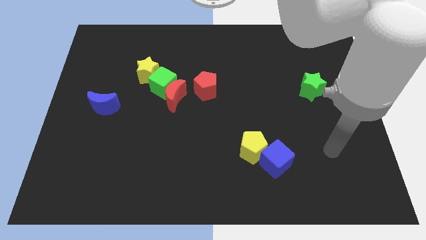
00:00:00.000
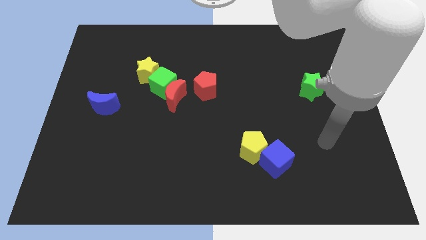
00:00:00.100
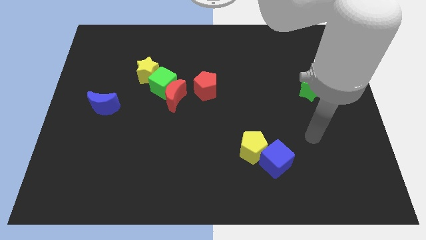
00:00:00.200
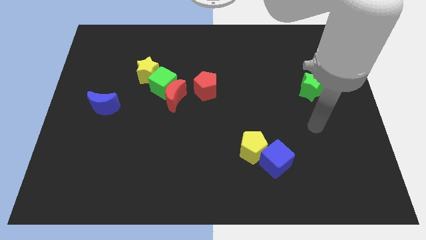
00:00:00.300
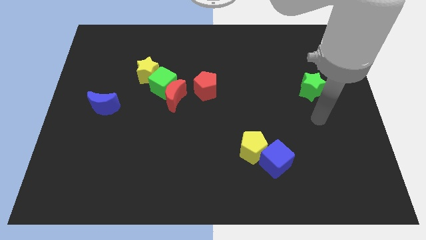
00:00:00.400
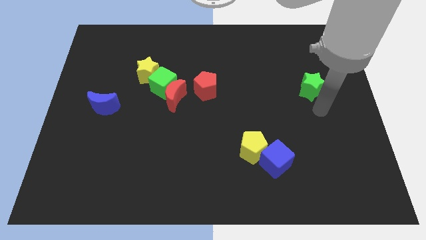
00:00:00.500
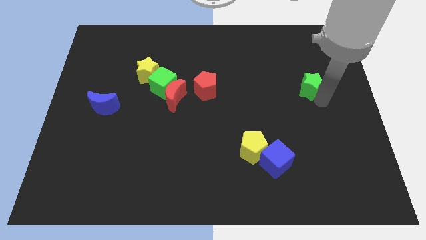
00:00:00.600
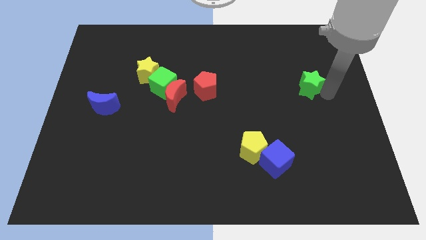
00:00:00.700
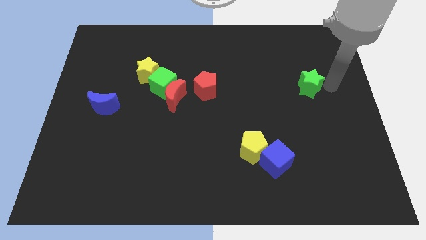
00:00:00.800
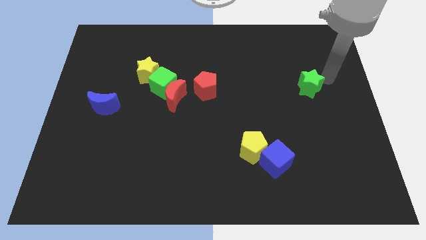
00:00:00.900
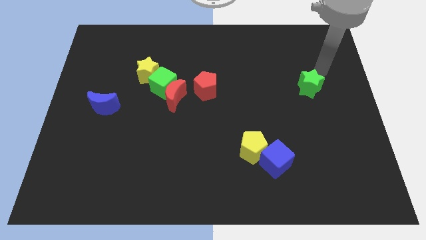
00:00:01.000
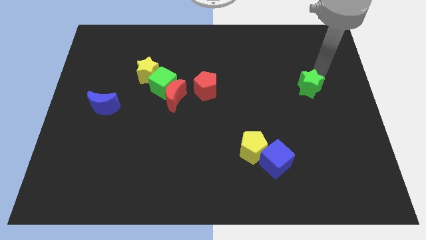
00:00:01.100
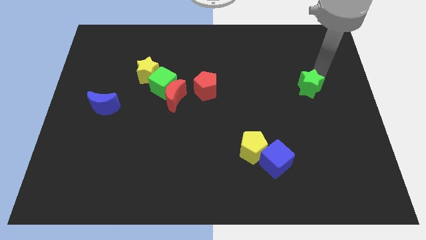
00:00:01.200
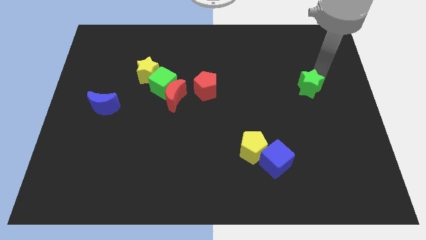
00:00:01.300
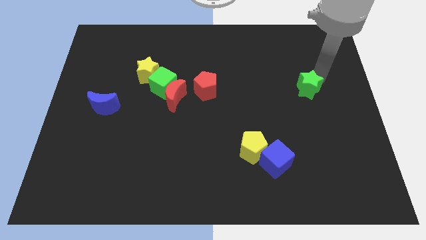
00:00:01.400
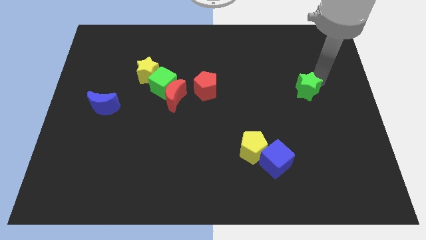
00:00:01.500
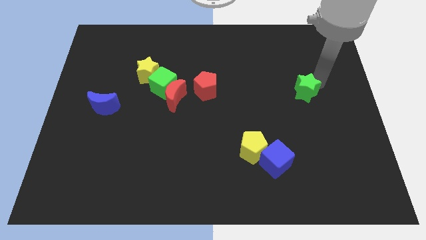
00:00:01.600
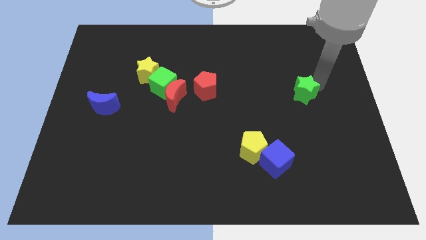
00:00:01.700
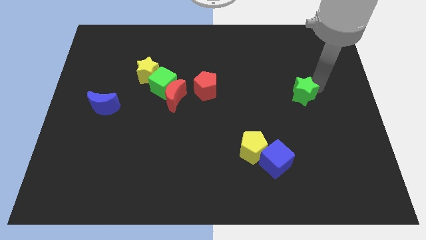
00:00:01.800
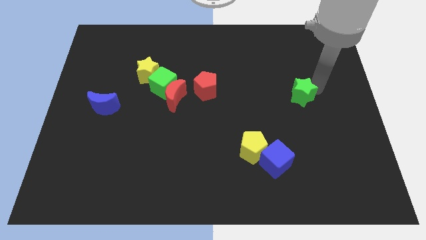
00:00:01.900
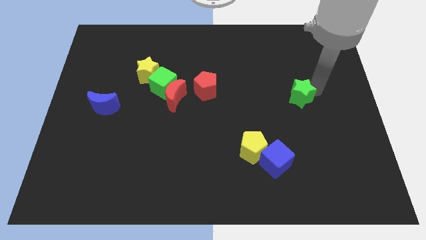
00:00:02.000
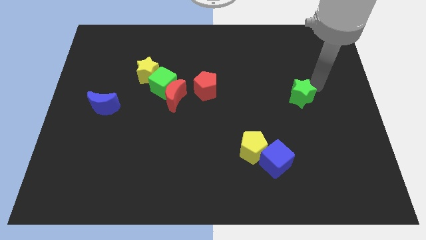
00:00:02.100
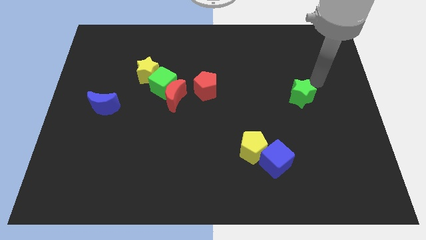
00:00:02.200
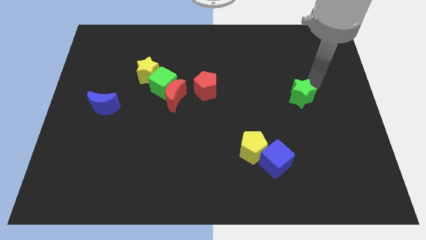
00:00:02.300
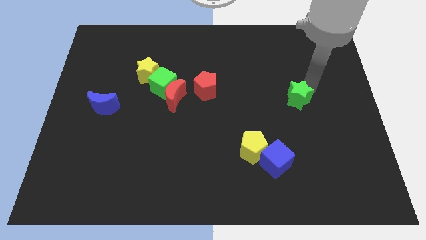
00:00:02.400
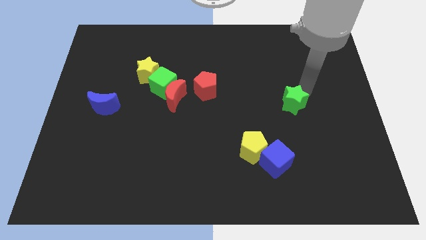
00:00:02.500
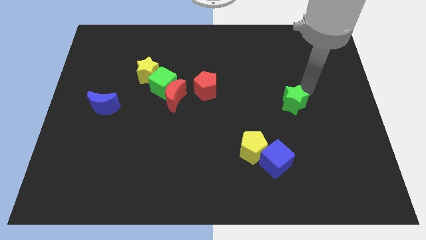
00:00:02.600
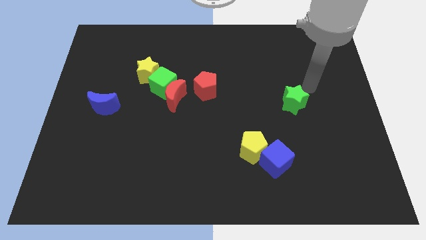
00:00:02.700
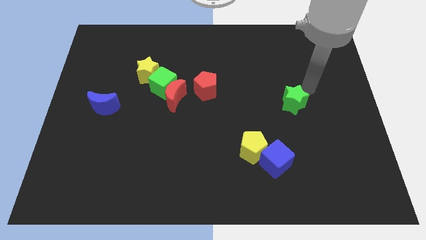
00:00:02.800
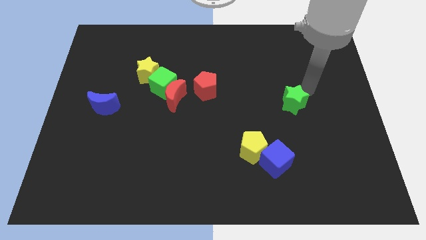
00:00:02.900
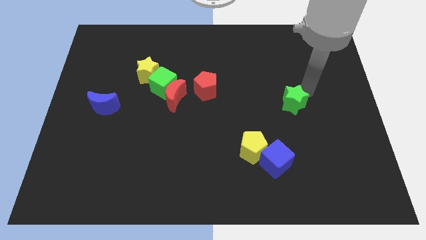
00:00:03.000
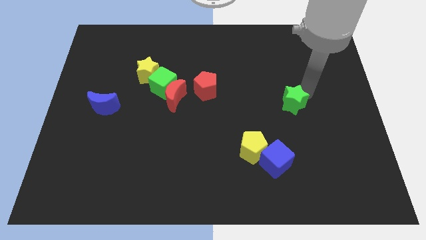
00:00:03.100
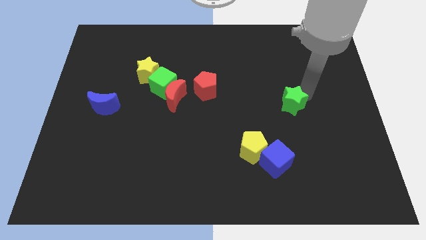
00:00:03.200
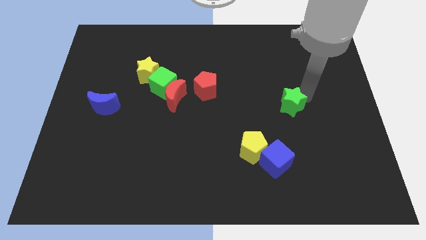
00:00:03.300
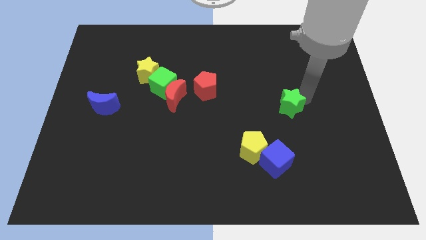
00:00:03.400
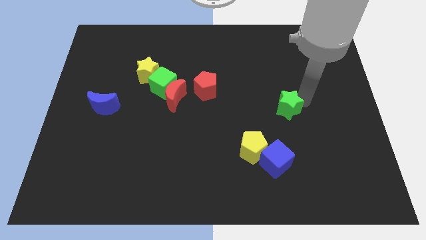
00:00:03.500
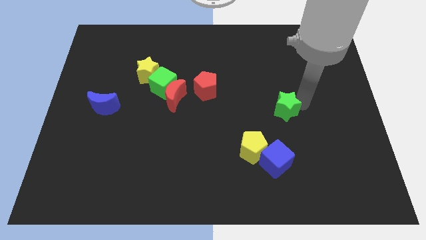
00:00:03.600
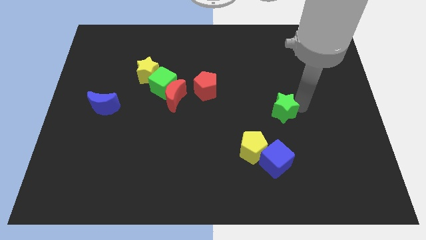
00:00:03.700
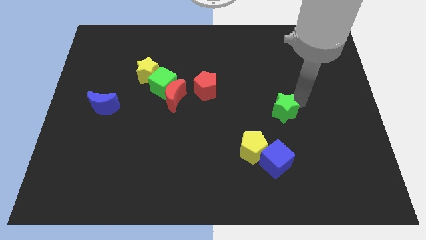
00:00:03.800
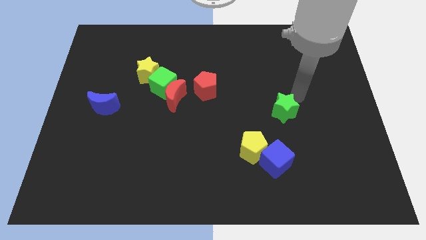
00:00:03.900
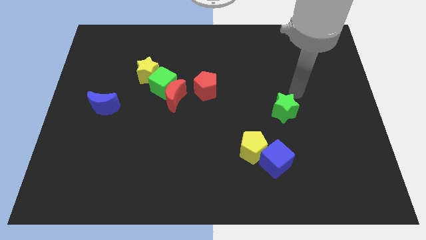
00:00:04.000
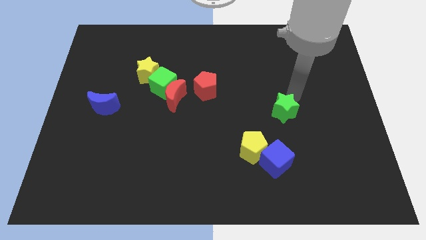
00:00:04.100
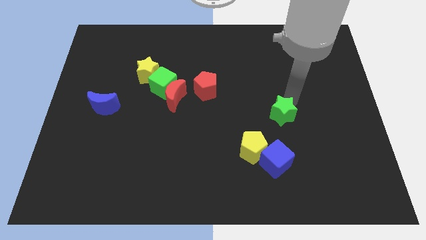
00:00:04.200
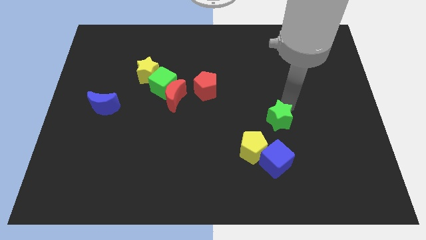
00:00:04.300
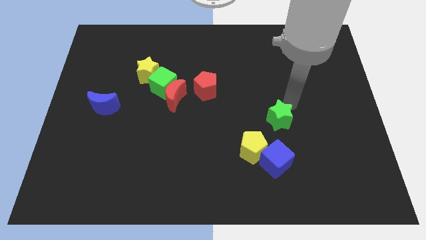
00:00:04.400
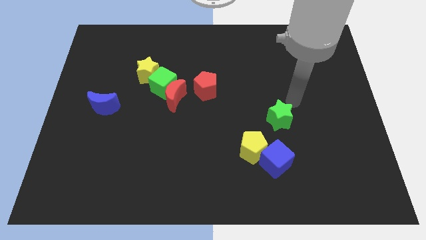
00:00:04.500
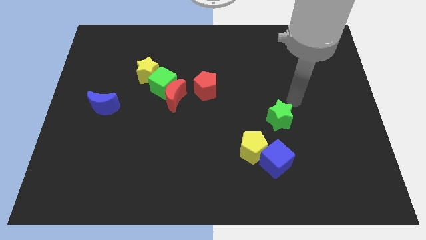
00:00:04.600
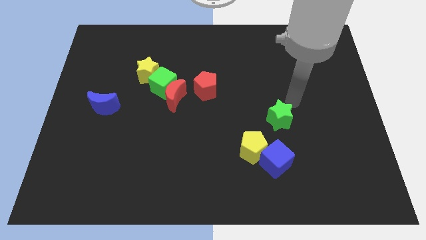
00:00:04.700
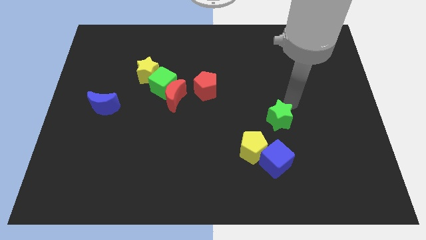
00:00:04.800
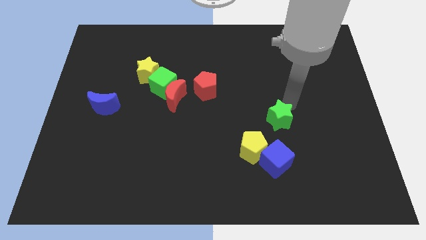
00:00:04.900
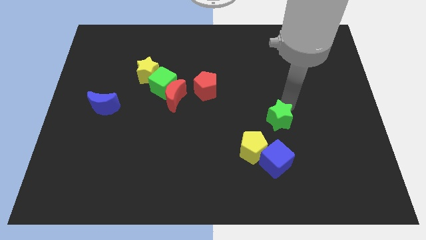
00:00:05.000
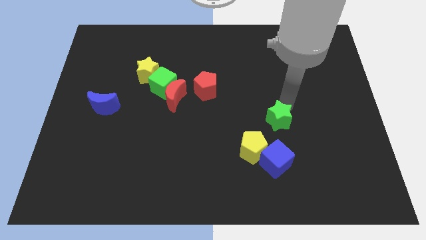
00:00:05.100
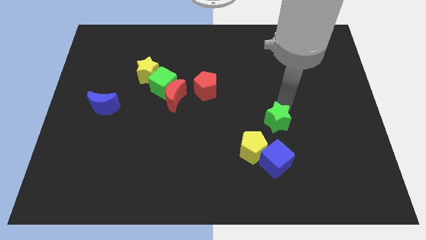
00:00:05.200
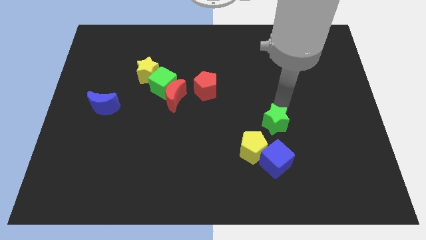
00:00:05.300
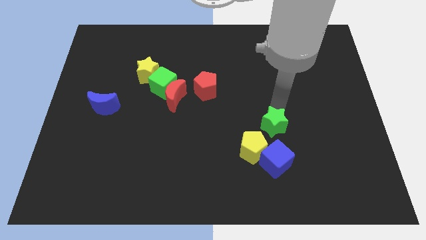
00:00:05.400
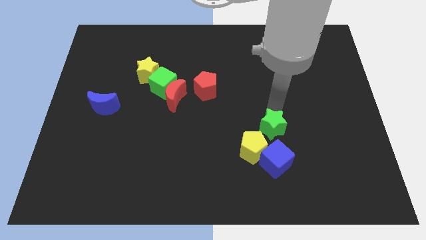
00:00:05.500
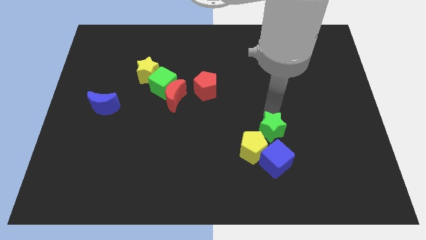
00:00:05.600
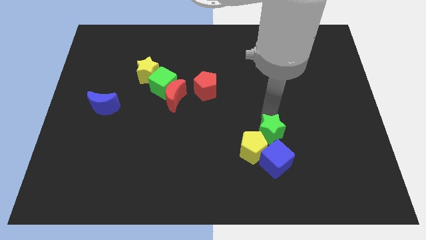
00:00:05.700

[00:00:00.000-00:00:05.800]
slide the green star close to the yellow pentagon

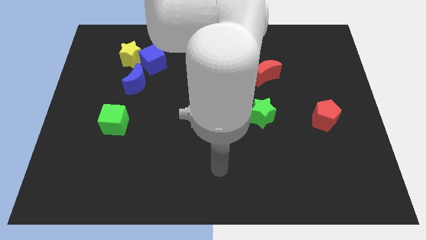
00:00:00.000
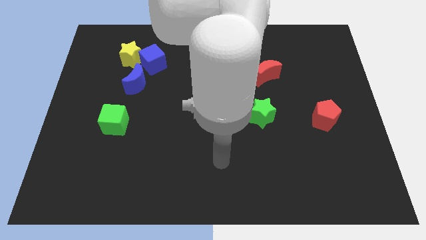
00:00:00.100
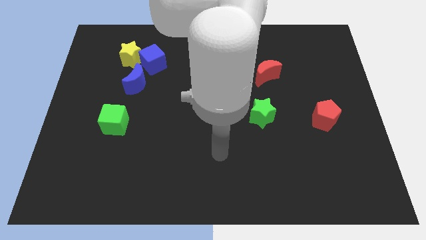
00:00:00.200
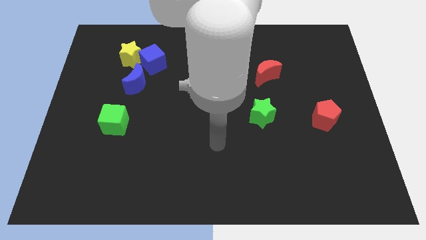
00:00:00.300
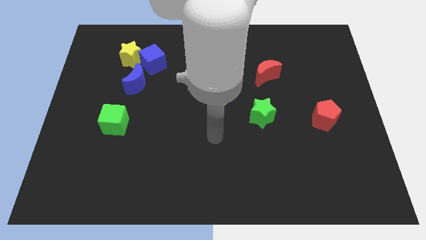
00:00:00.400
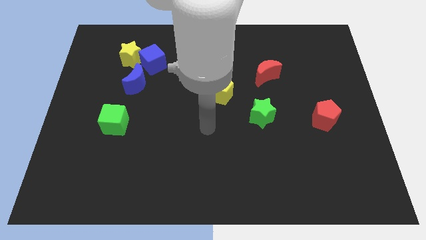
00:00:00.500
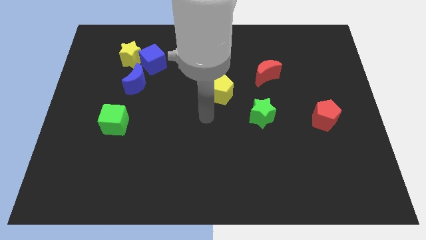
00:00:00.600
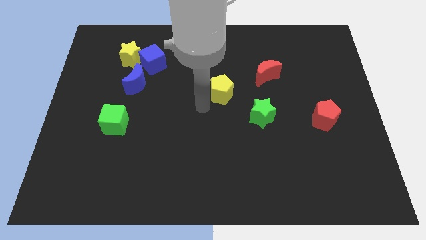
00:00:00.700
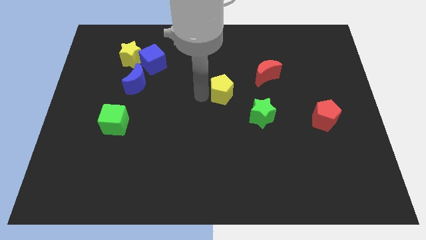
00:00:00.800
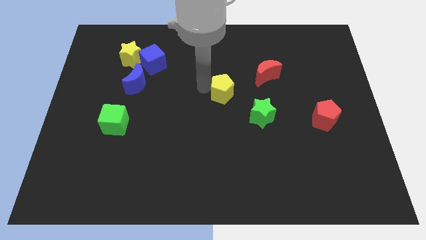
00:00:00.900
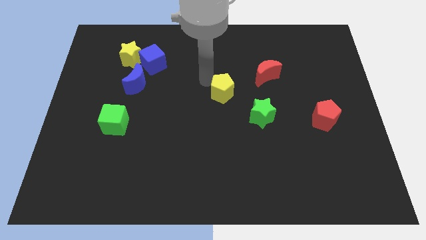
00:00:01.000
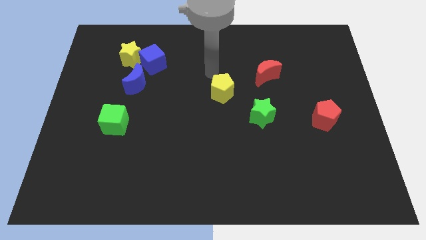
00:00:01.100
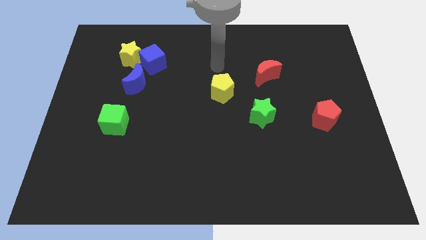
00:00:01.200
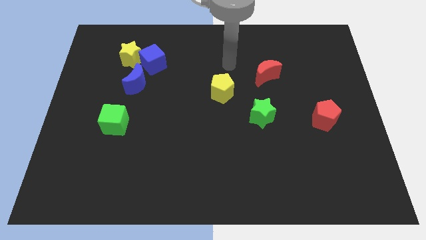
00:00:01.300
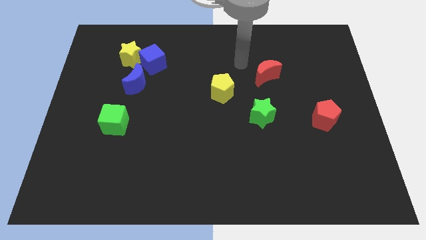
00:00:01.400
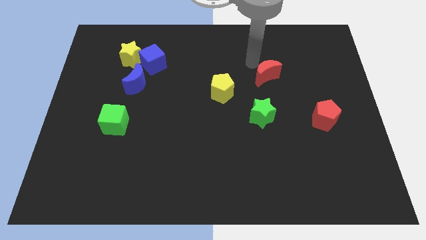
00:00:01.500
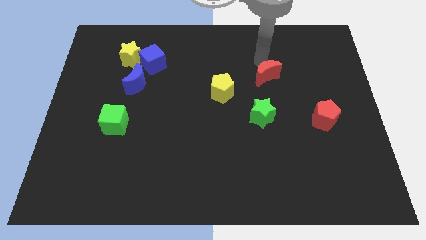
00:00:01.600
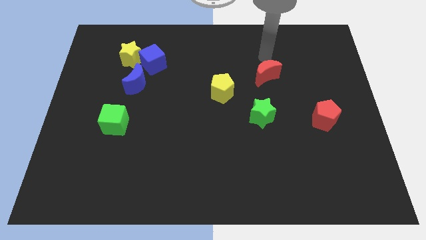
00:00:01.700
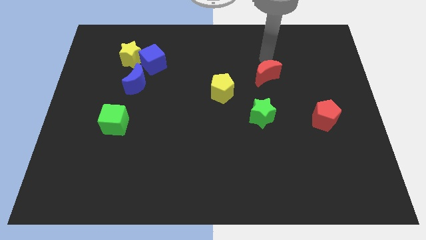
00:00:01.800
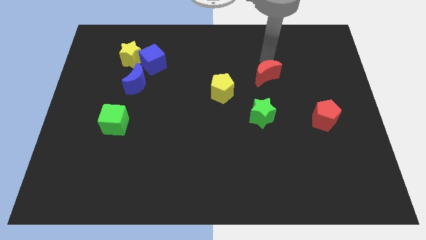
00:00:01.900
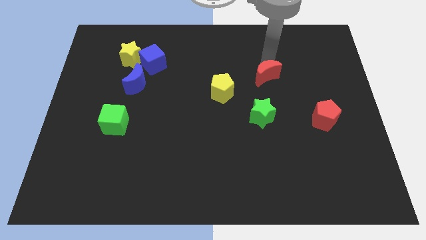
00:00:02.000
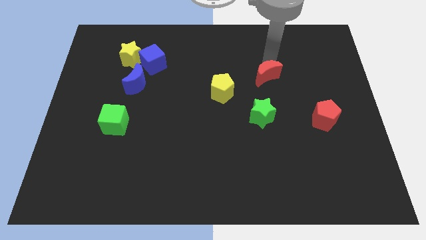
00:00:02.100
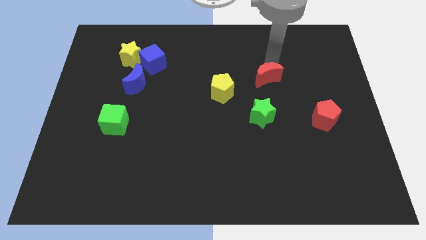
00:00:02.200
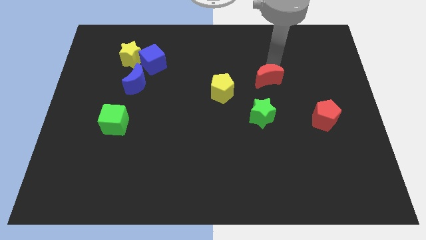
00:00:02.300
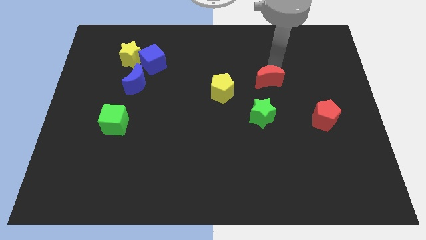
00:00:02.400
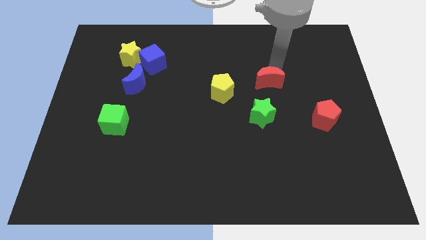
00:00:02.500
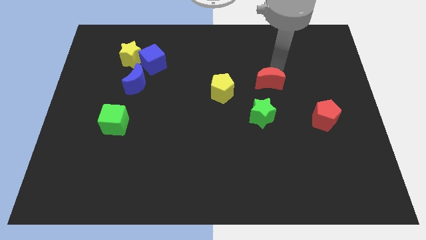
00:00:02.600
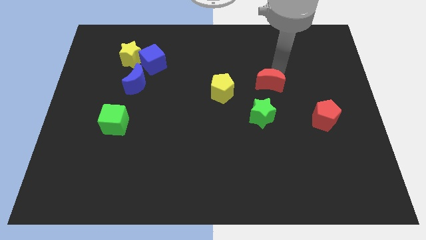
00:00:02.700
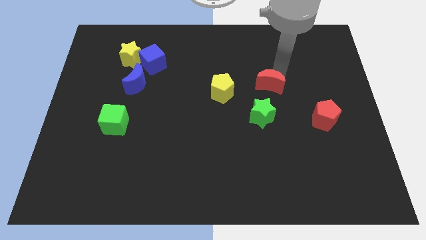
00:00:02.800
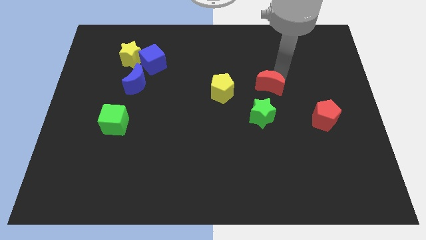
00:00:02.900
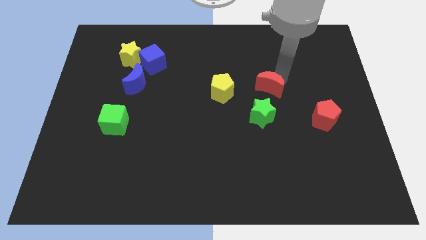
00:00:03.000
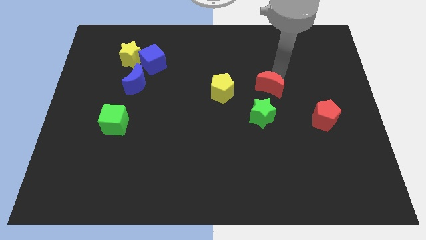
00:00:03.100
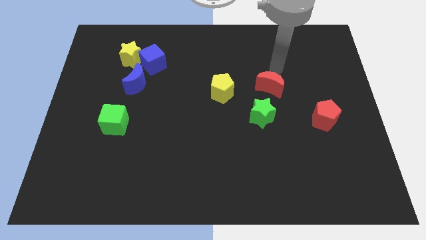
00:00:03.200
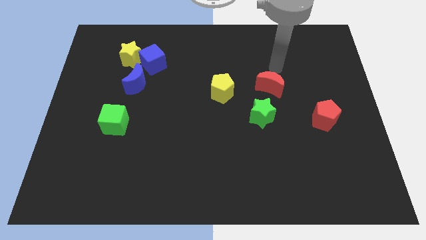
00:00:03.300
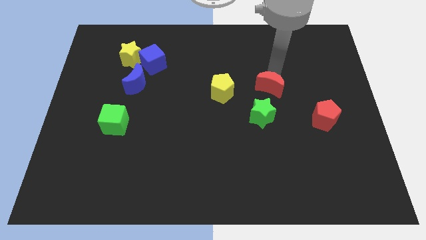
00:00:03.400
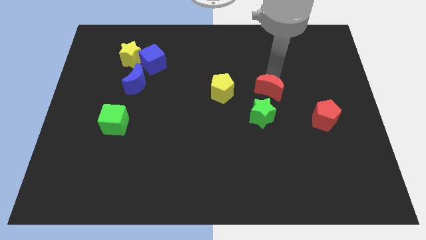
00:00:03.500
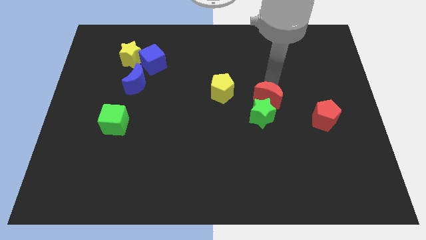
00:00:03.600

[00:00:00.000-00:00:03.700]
push the red moon towards the green star
